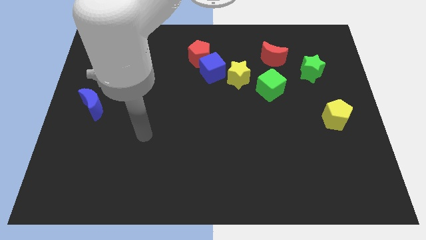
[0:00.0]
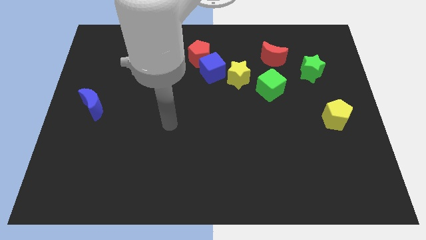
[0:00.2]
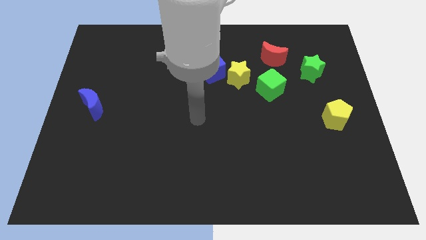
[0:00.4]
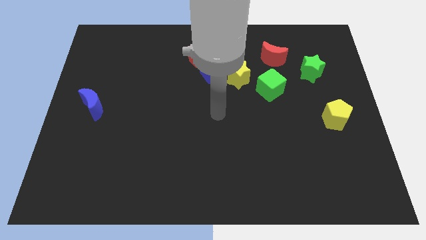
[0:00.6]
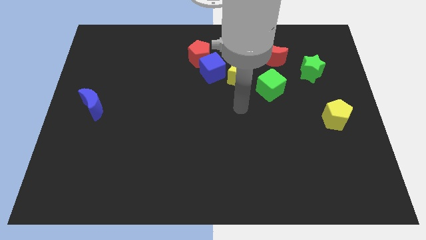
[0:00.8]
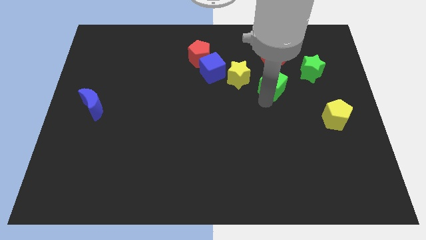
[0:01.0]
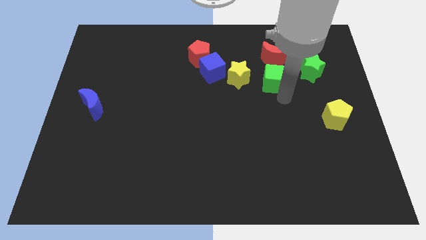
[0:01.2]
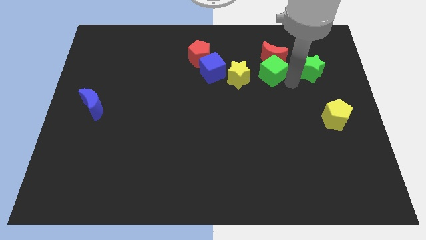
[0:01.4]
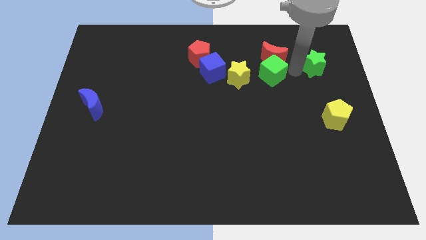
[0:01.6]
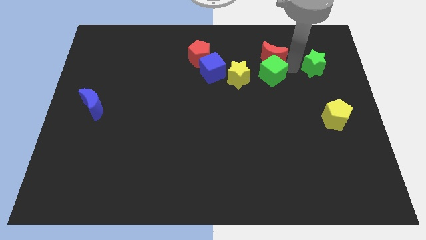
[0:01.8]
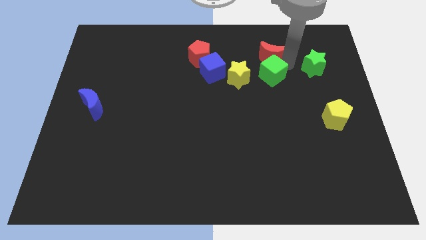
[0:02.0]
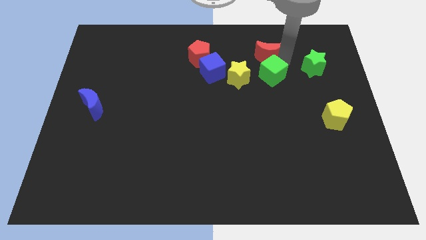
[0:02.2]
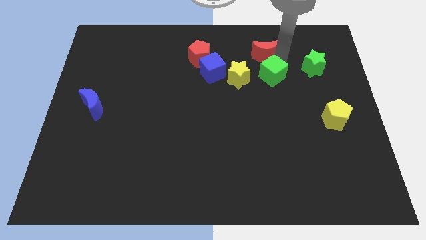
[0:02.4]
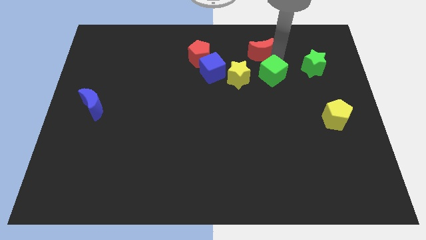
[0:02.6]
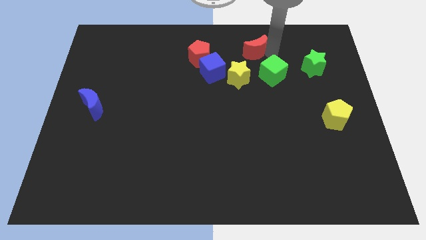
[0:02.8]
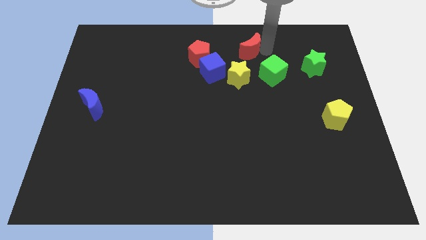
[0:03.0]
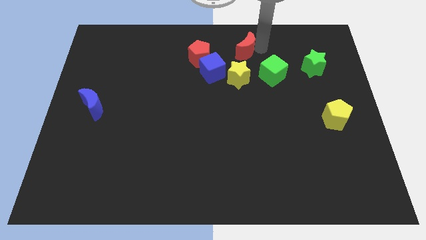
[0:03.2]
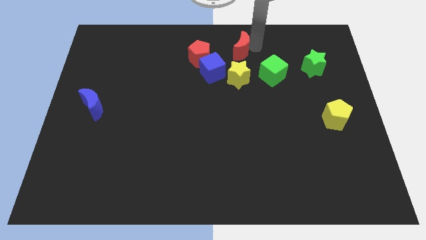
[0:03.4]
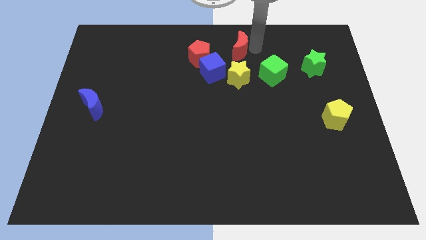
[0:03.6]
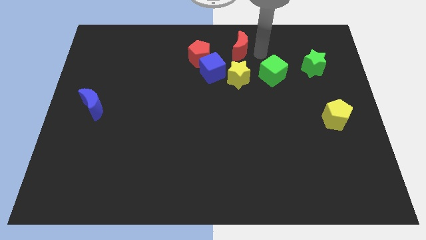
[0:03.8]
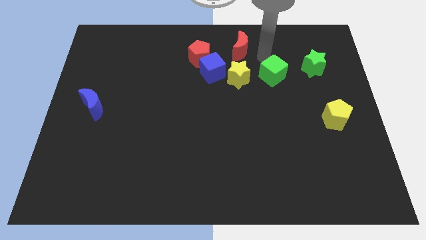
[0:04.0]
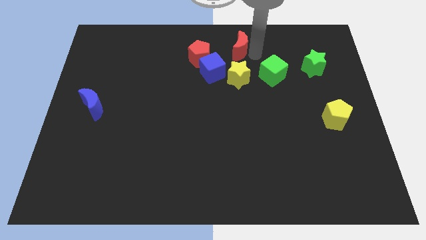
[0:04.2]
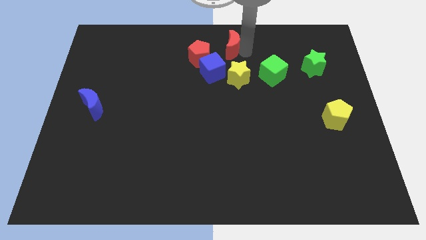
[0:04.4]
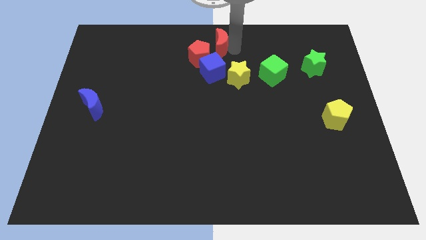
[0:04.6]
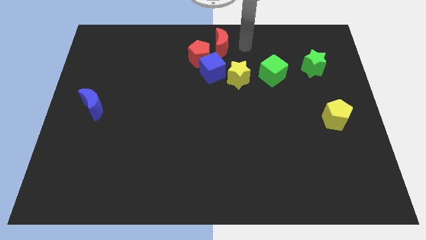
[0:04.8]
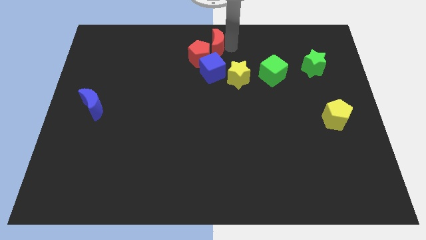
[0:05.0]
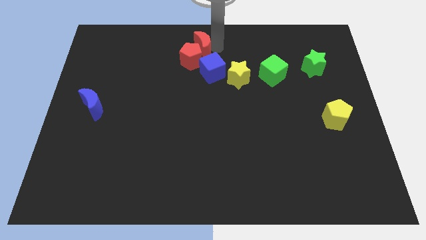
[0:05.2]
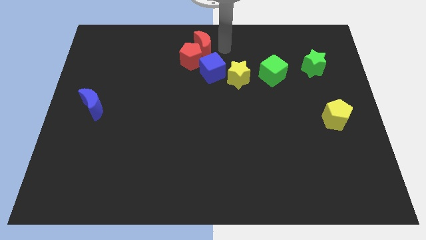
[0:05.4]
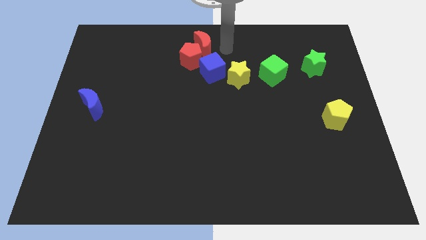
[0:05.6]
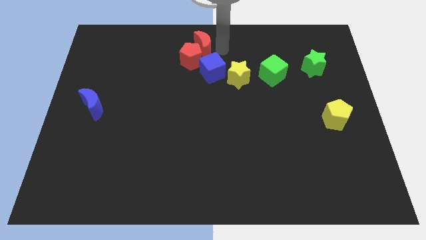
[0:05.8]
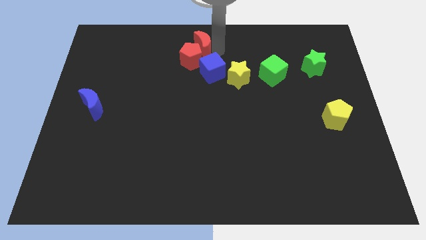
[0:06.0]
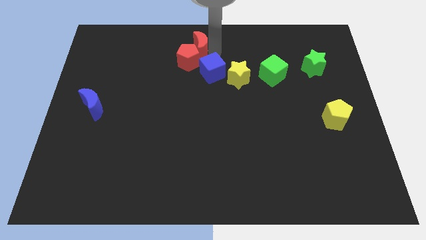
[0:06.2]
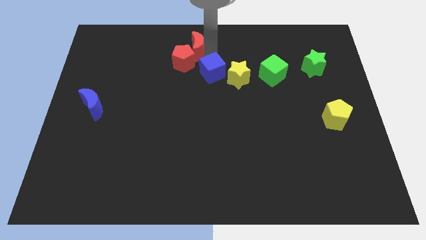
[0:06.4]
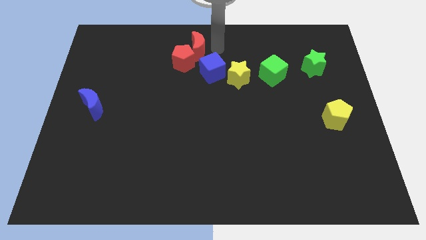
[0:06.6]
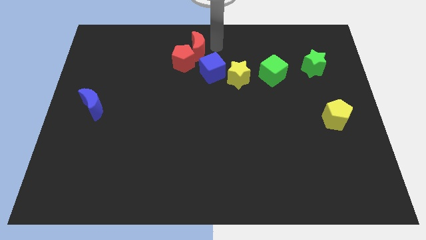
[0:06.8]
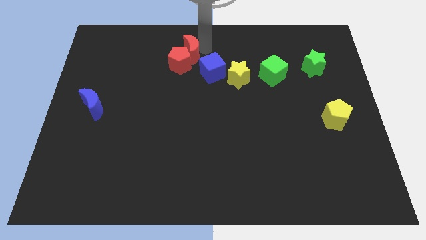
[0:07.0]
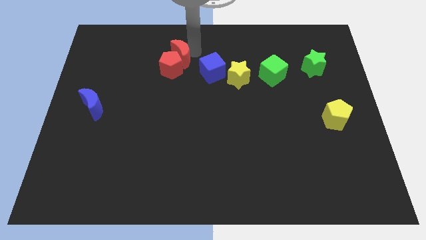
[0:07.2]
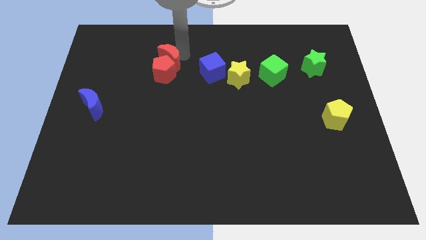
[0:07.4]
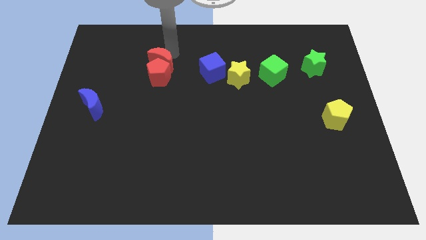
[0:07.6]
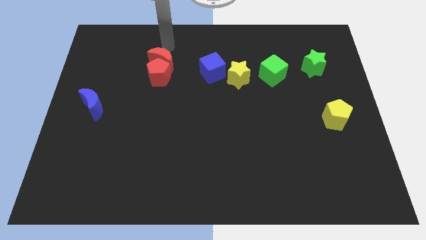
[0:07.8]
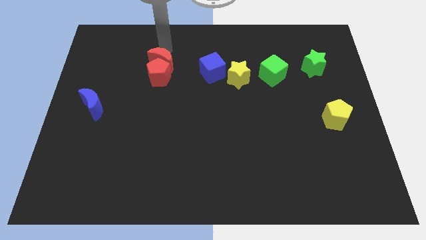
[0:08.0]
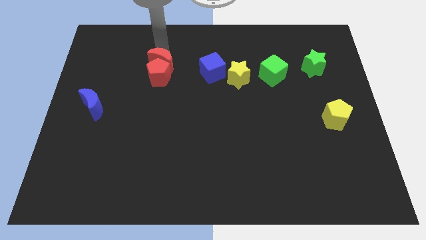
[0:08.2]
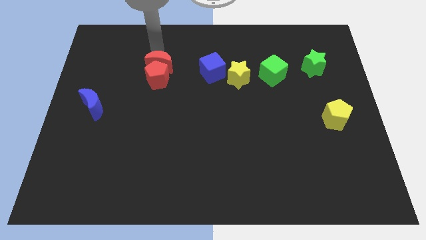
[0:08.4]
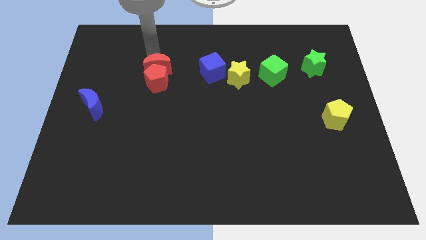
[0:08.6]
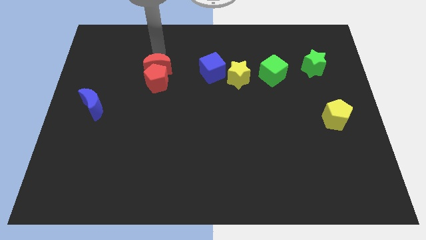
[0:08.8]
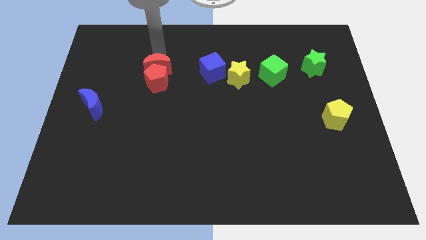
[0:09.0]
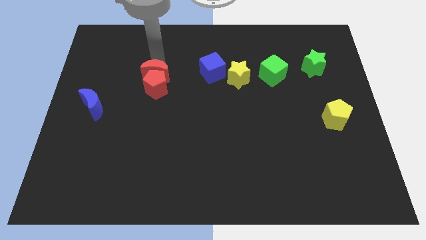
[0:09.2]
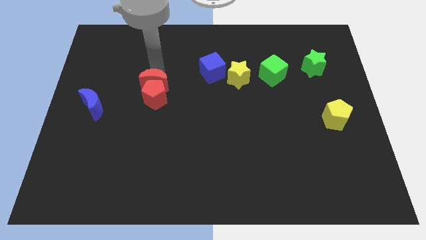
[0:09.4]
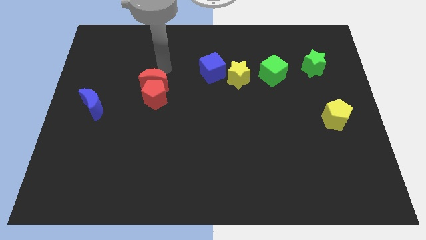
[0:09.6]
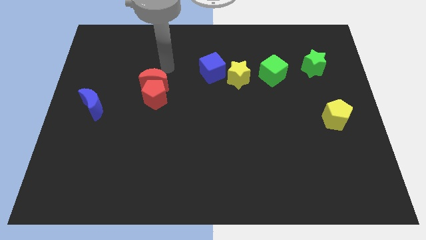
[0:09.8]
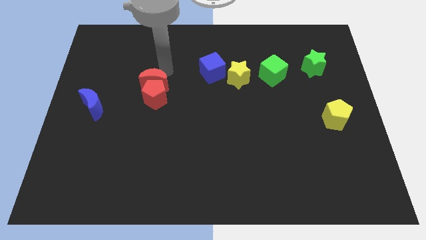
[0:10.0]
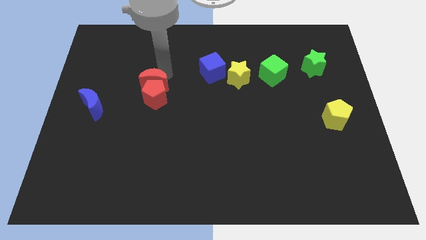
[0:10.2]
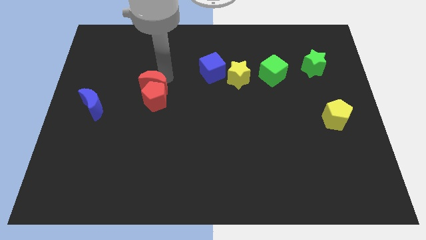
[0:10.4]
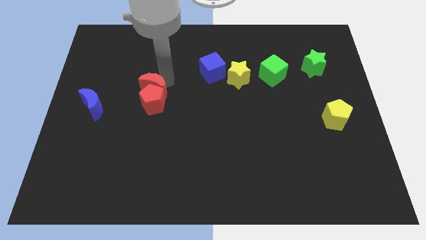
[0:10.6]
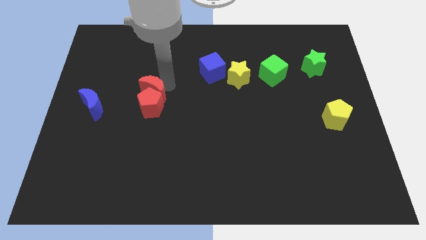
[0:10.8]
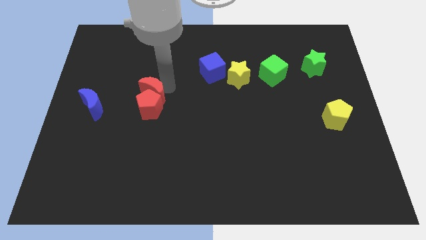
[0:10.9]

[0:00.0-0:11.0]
put the red moon to the right side of the blue moon

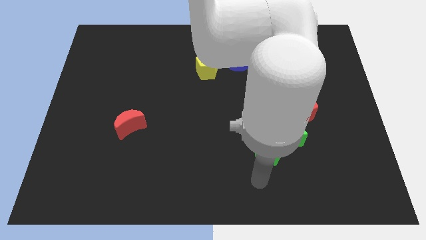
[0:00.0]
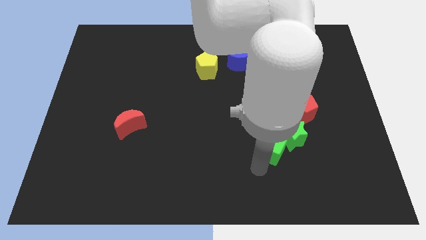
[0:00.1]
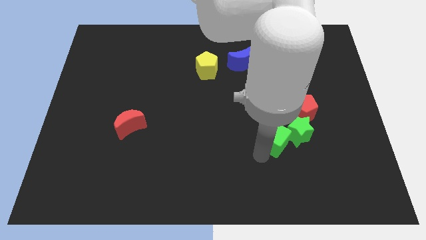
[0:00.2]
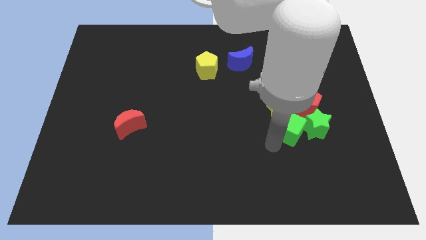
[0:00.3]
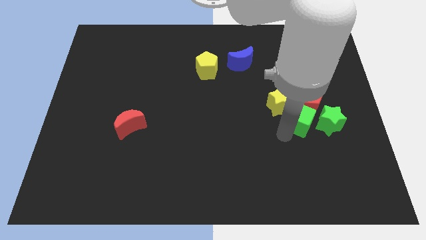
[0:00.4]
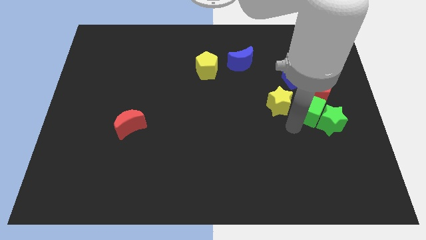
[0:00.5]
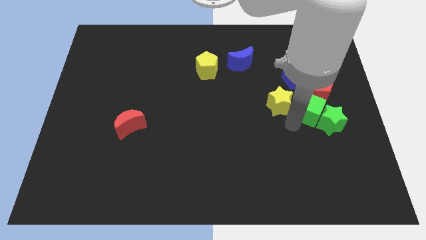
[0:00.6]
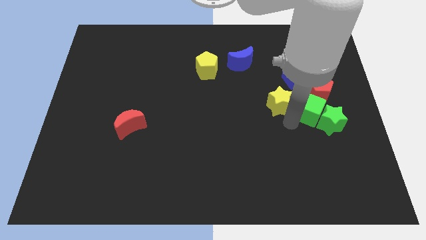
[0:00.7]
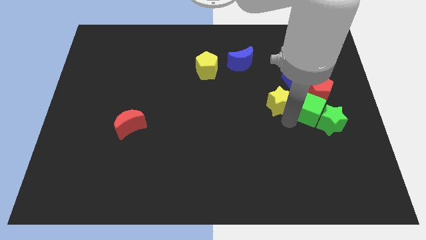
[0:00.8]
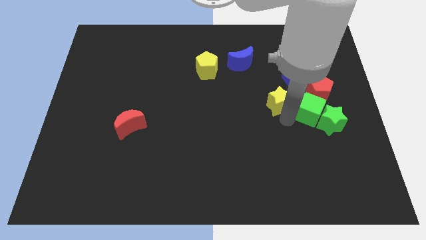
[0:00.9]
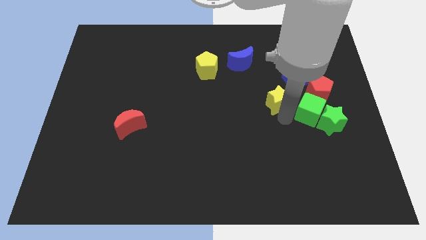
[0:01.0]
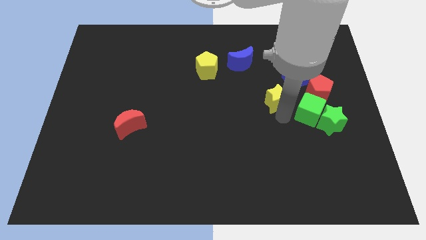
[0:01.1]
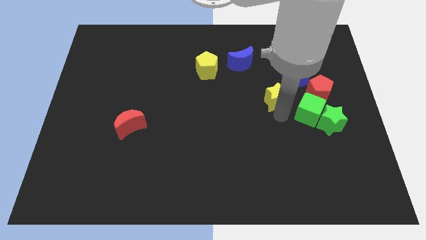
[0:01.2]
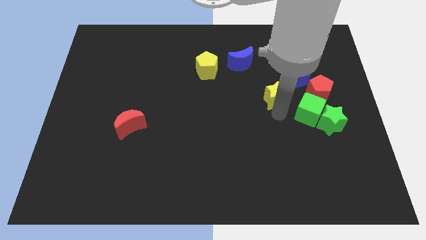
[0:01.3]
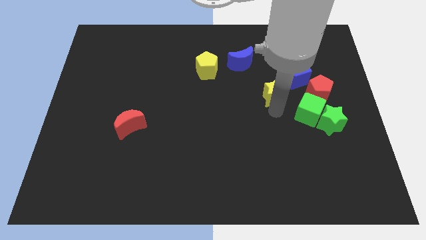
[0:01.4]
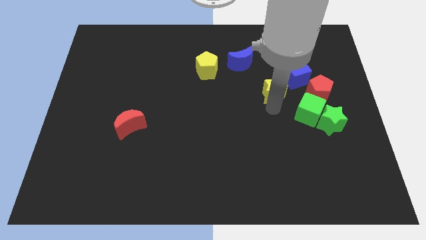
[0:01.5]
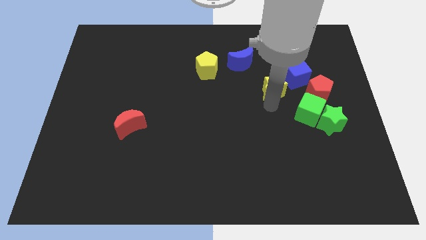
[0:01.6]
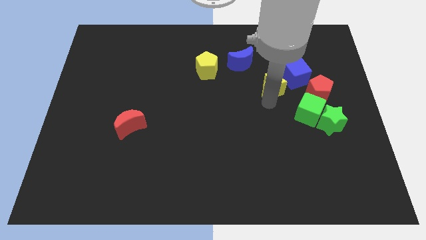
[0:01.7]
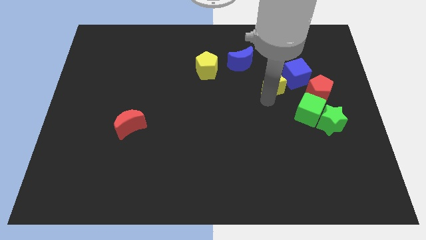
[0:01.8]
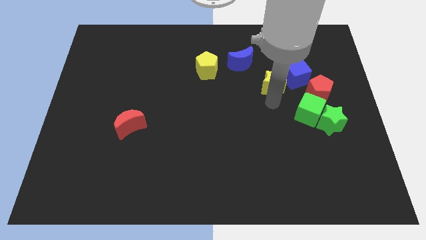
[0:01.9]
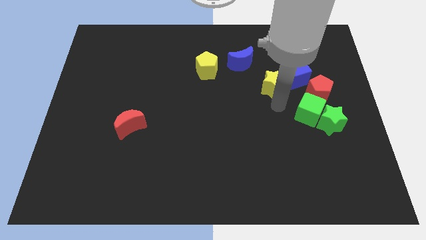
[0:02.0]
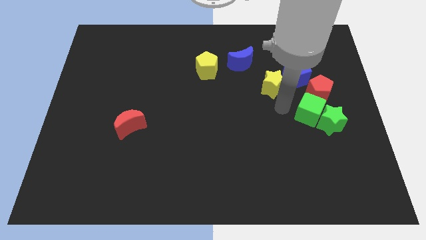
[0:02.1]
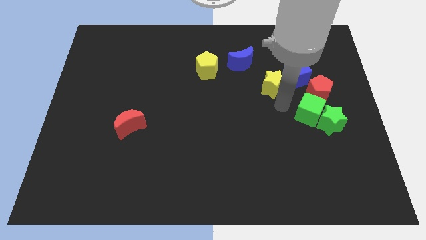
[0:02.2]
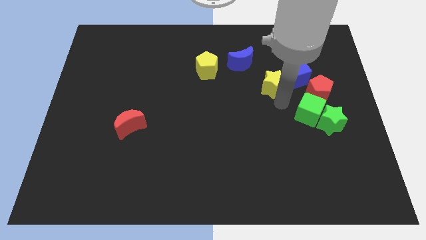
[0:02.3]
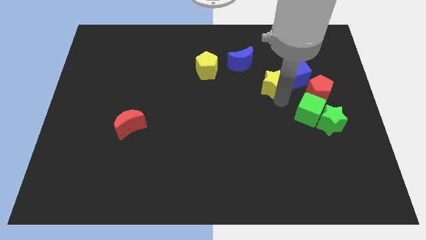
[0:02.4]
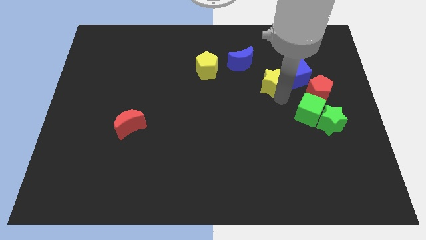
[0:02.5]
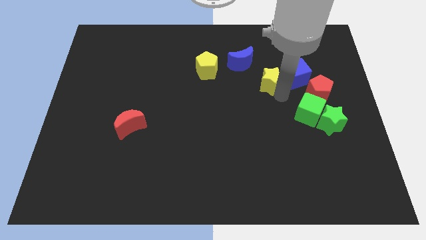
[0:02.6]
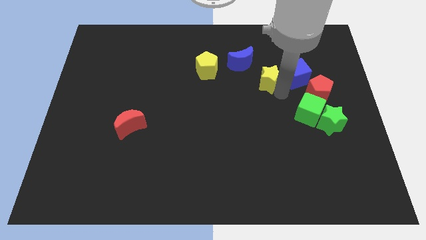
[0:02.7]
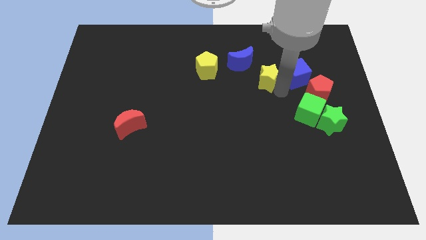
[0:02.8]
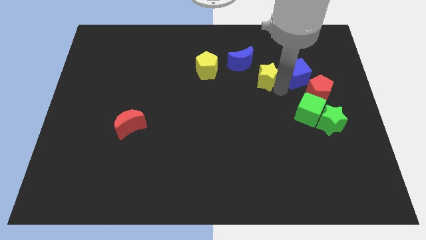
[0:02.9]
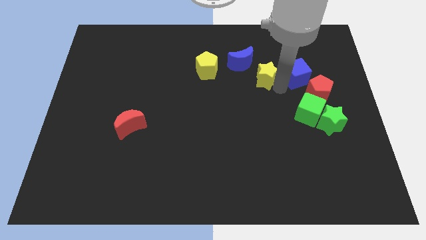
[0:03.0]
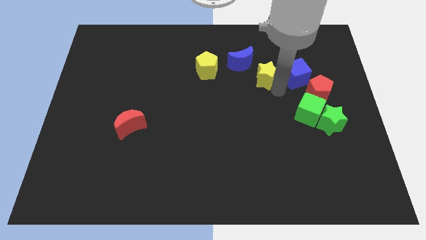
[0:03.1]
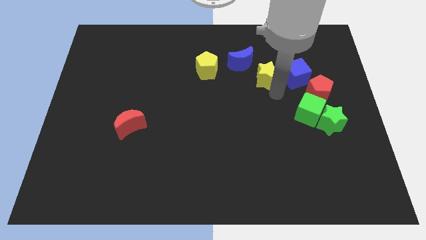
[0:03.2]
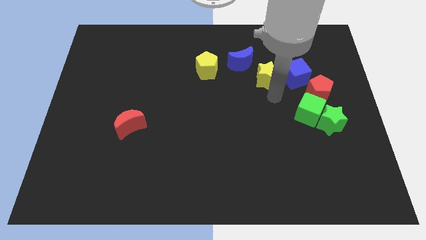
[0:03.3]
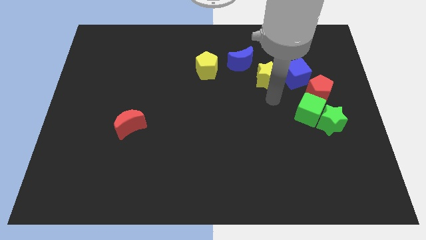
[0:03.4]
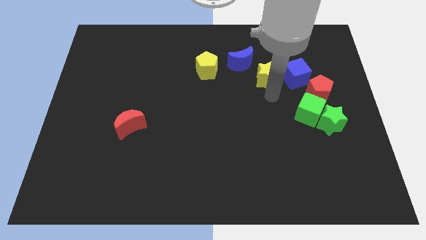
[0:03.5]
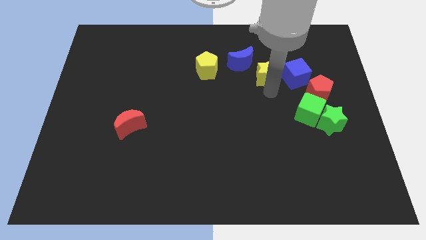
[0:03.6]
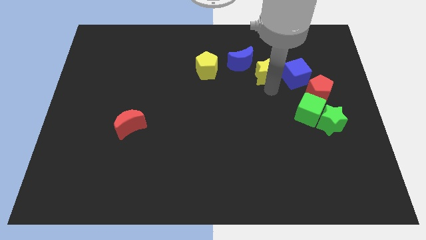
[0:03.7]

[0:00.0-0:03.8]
slide the yellow star to the right of the blue moon
